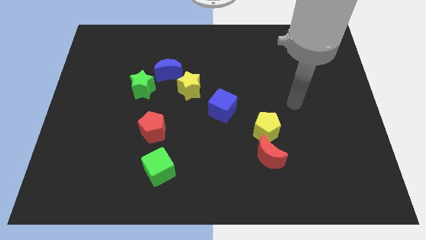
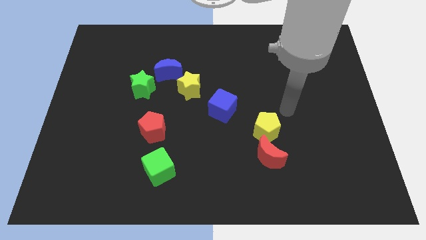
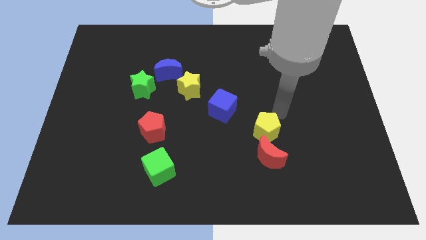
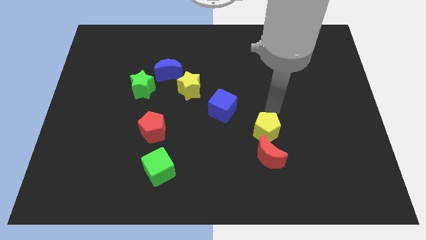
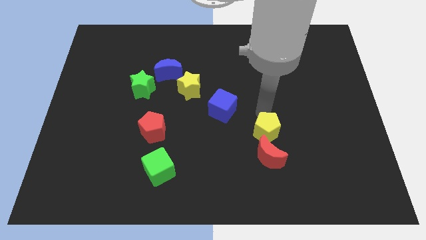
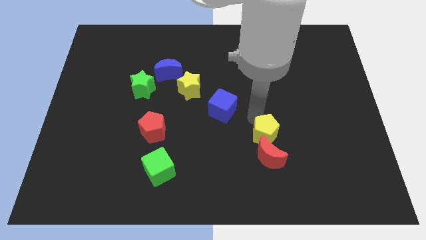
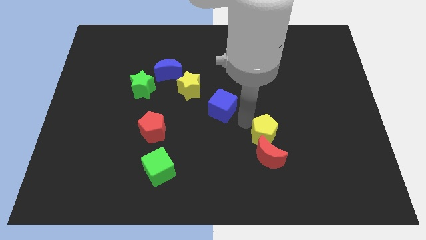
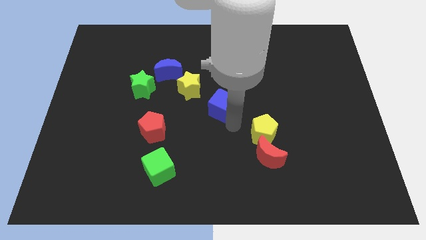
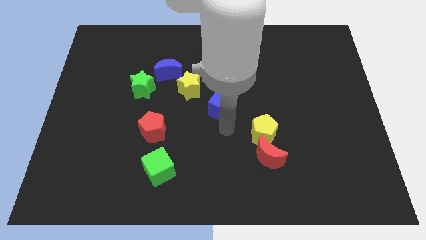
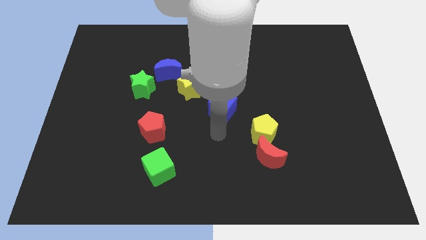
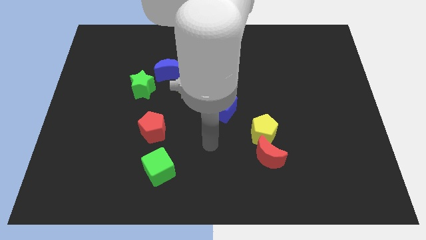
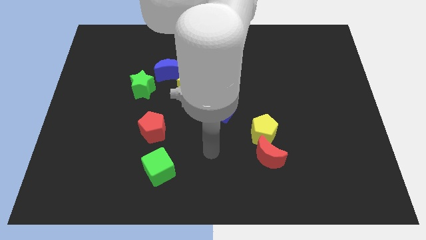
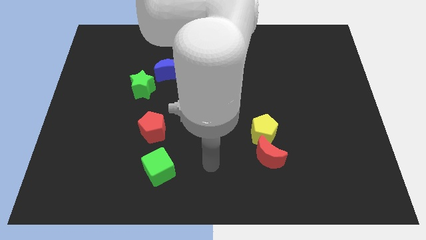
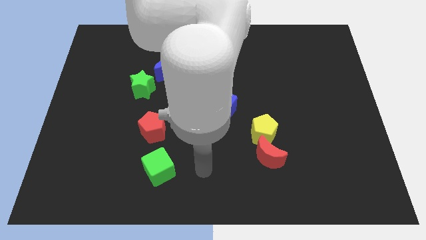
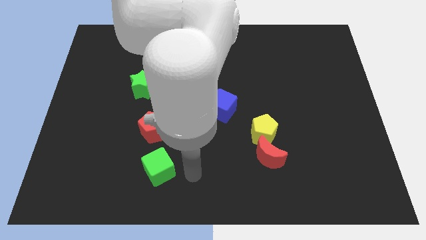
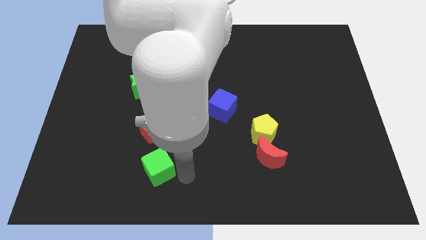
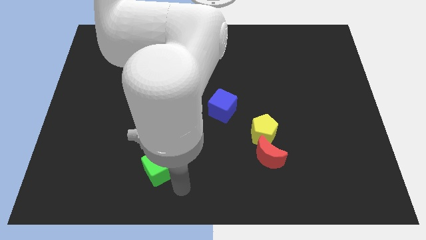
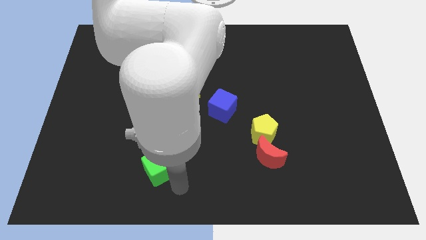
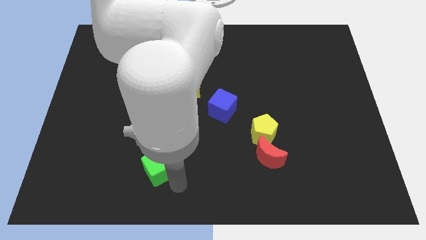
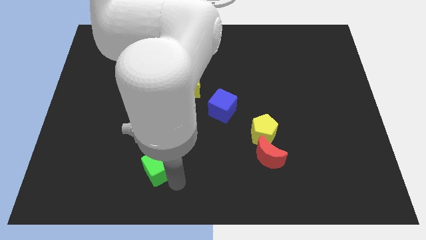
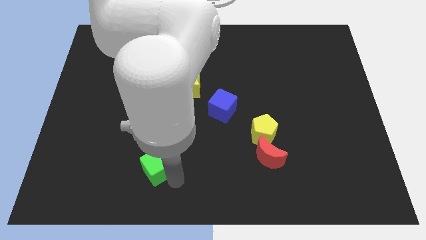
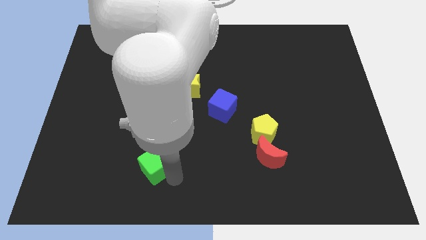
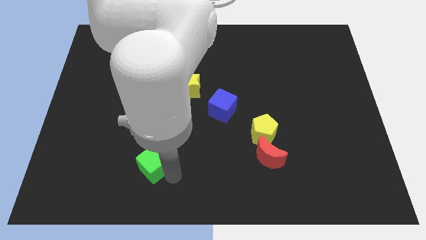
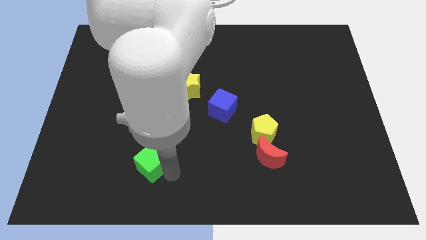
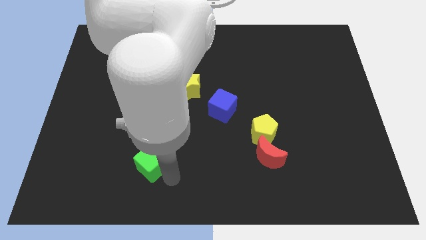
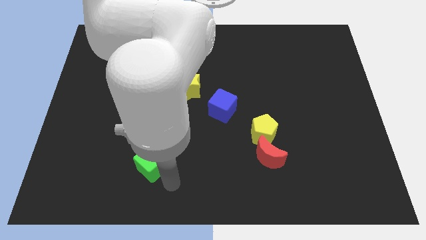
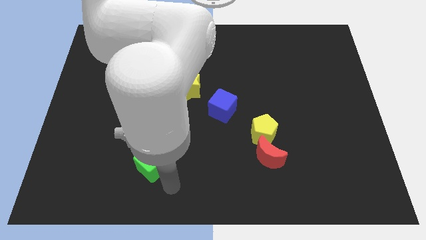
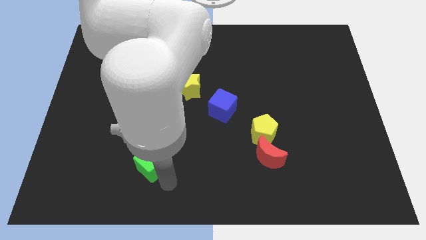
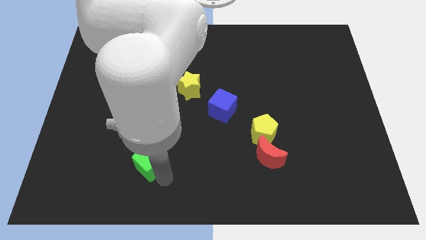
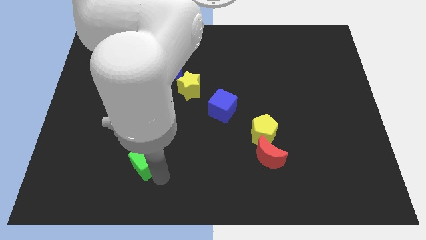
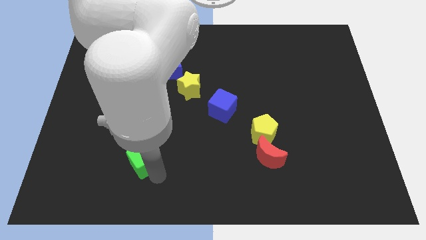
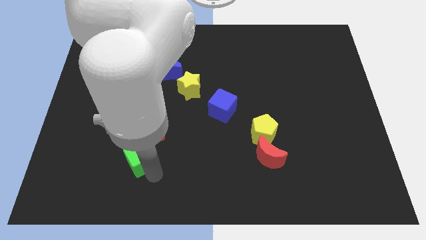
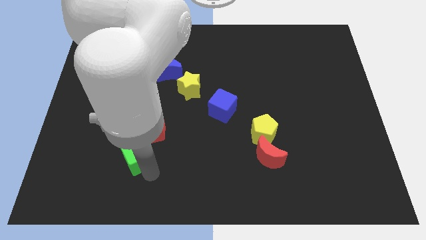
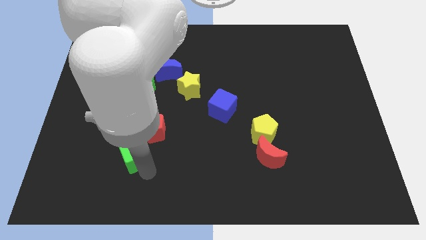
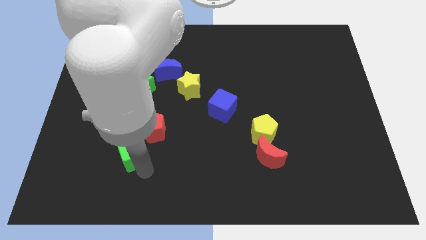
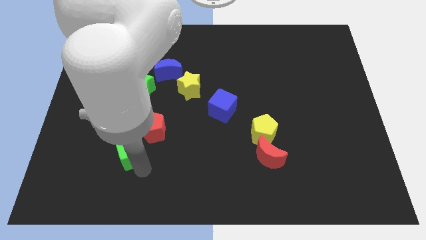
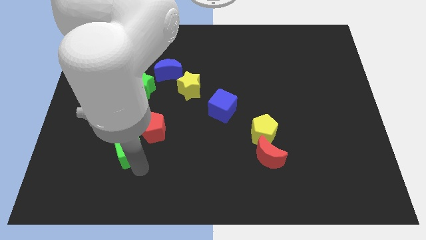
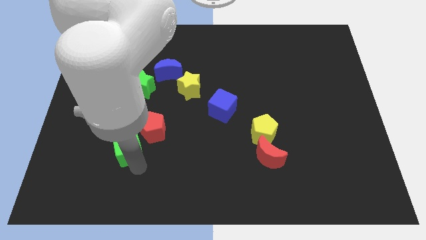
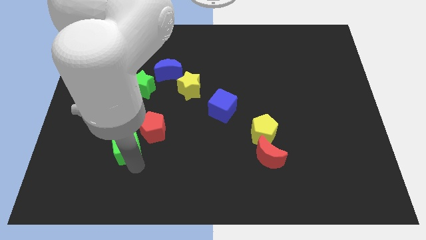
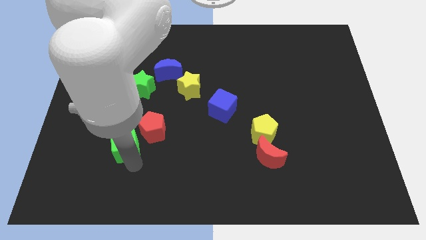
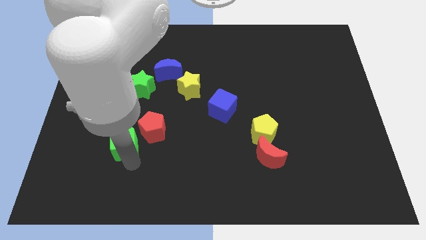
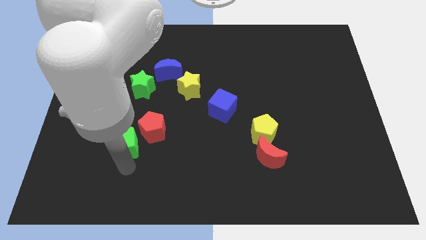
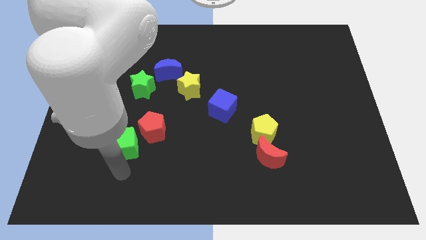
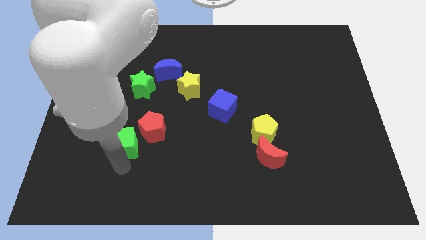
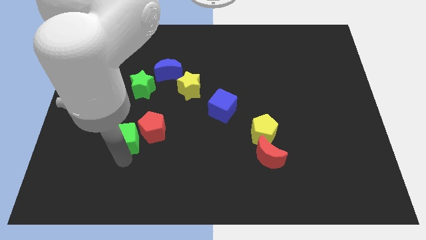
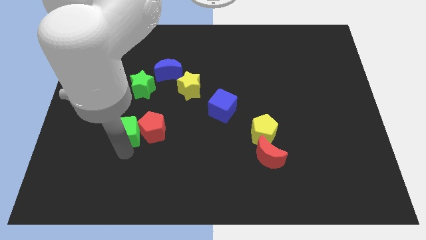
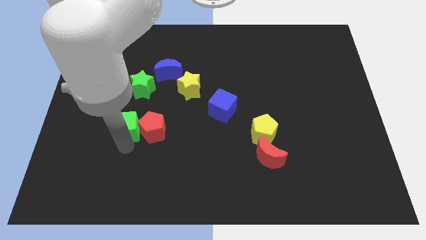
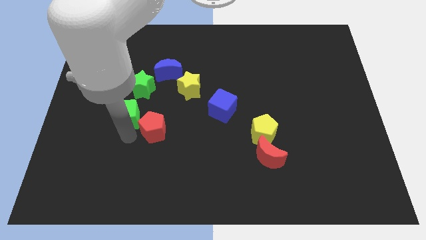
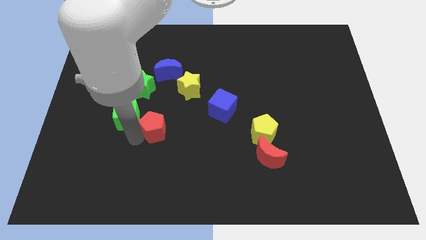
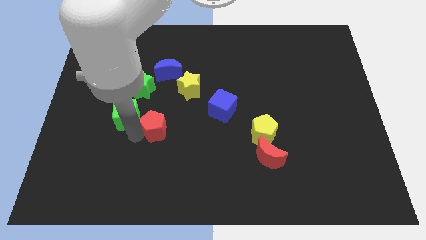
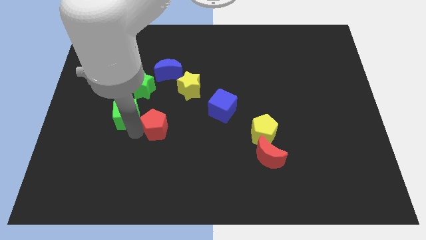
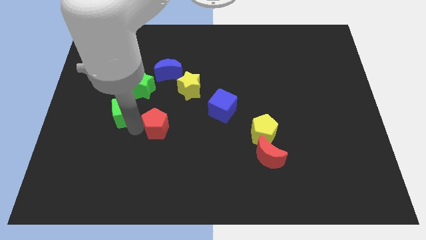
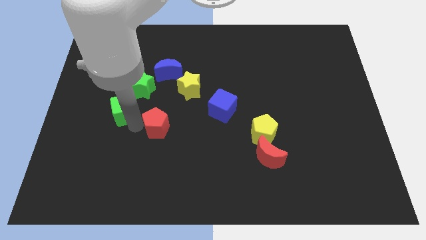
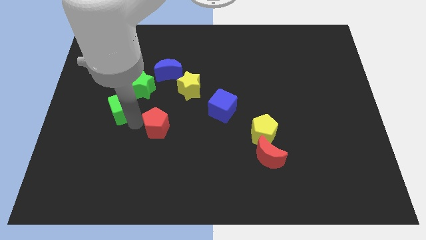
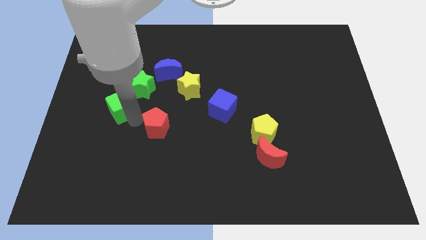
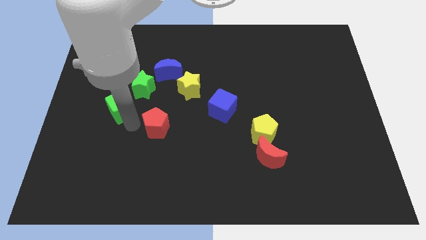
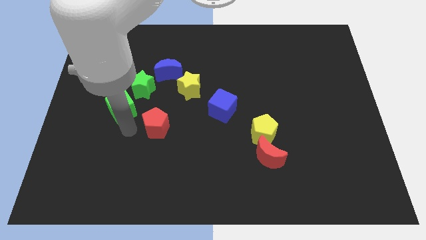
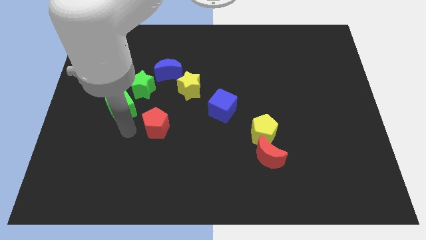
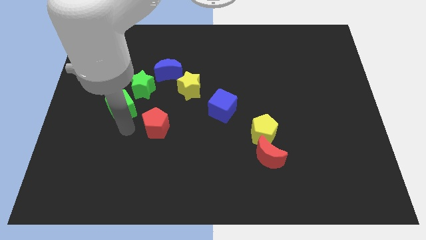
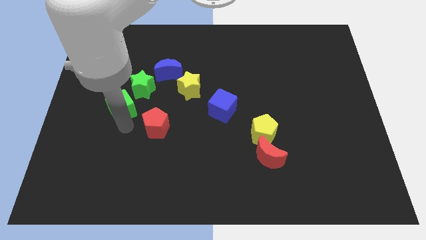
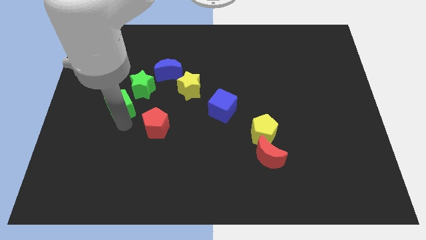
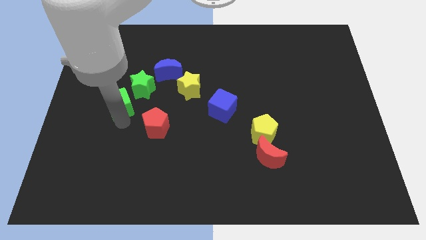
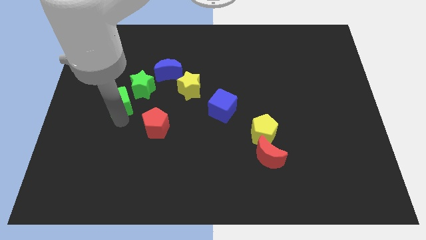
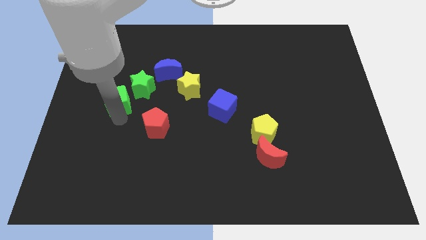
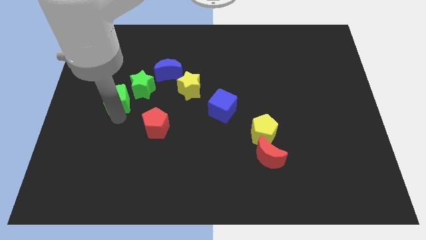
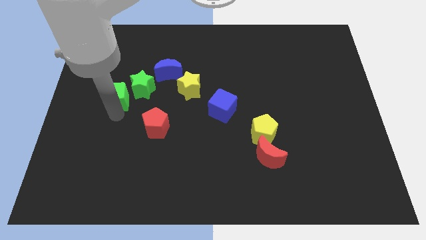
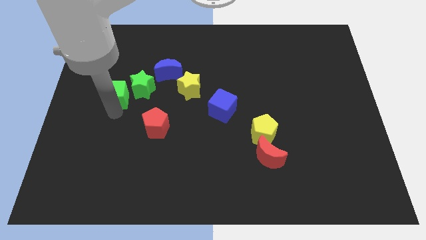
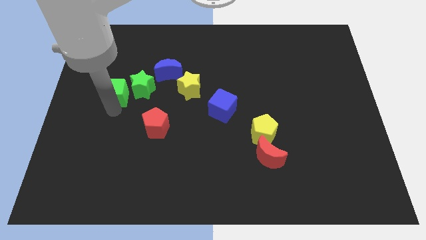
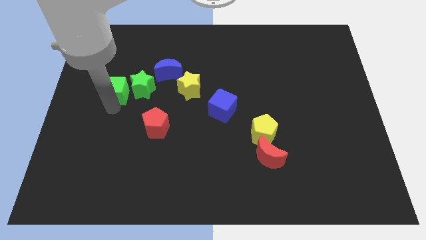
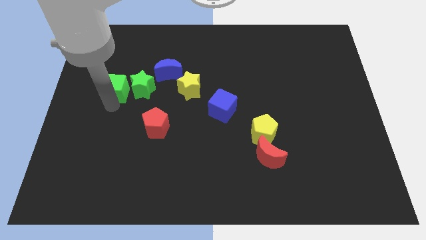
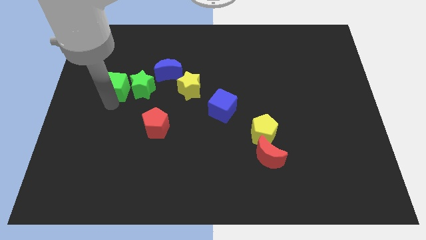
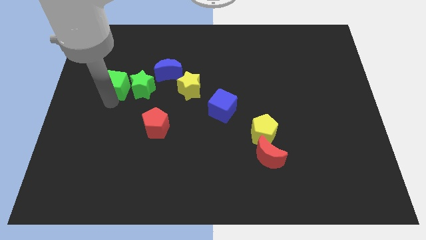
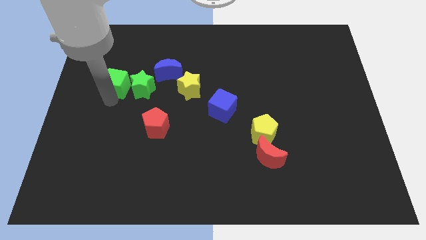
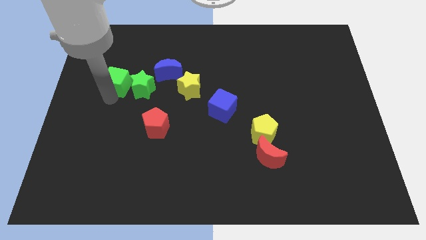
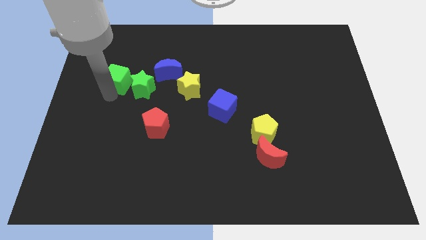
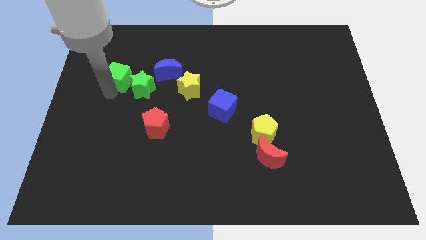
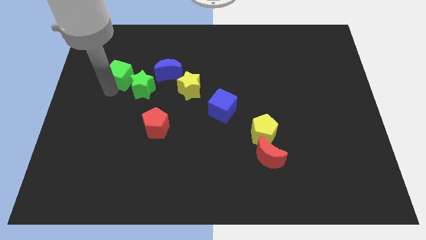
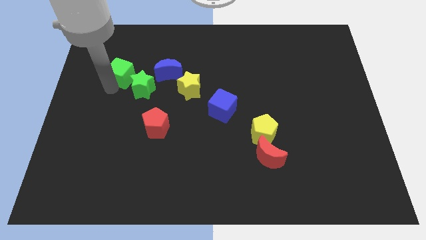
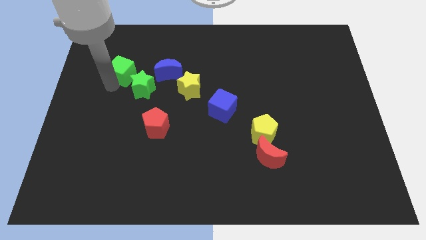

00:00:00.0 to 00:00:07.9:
move the green cube up

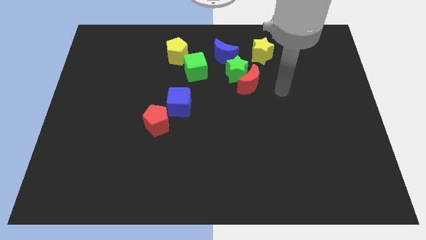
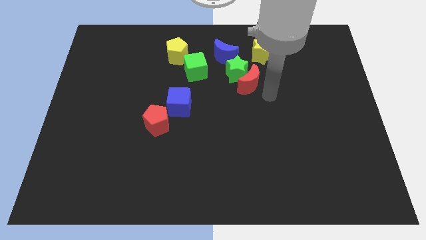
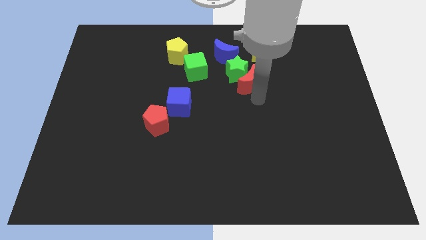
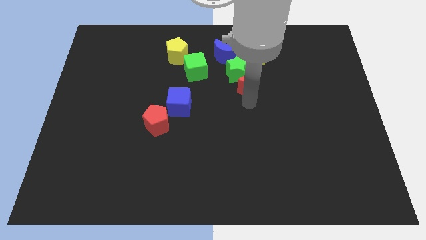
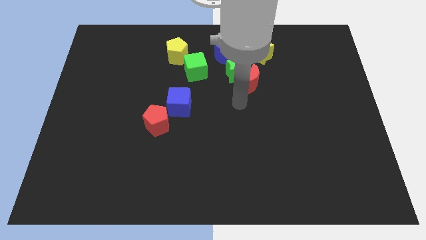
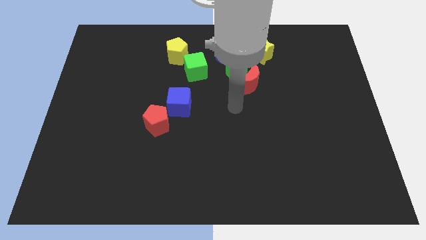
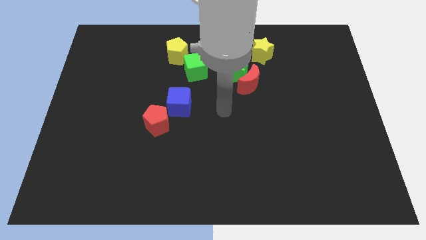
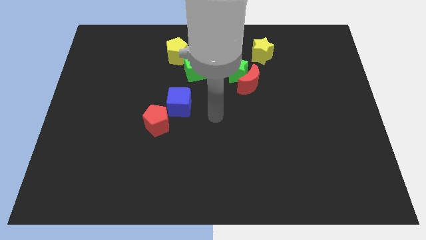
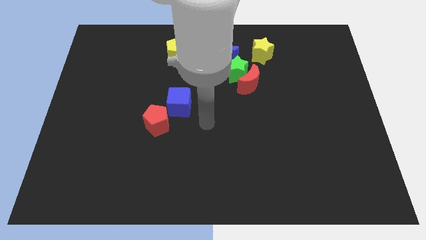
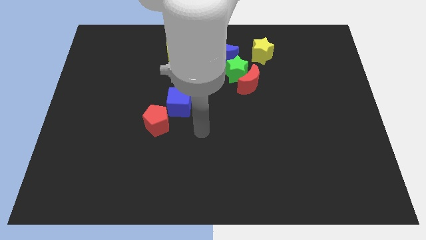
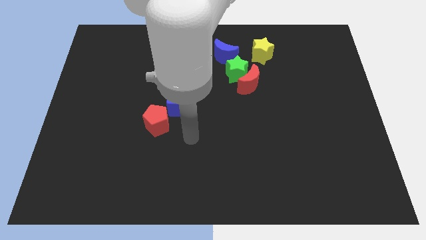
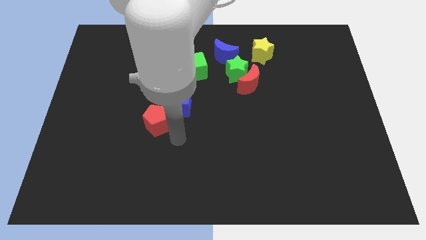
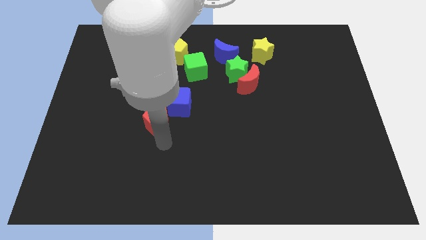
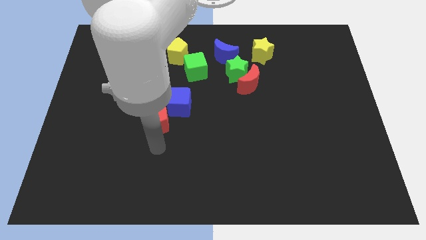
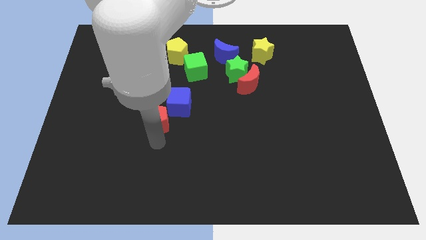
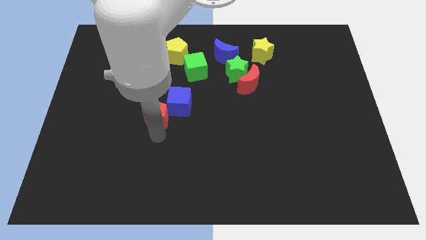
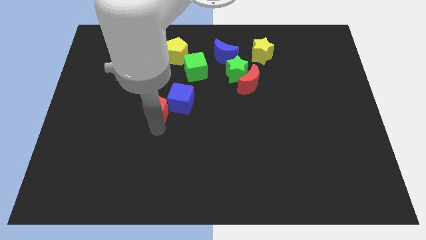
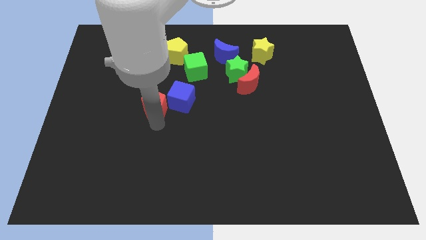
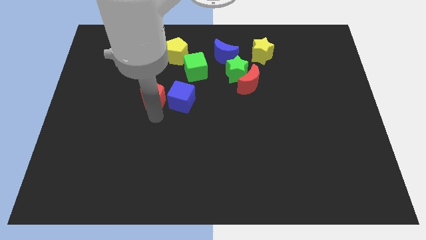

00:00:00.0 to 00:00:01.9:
slide the red pentagon a bit upwards
